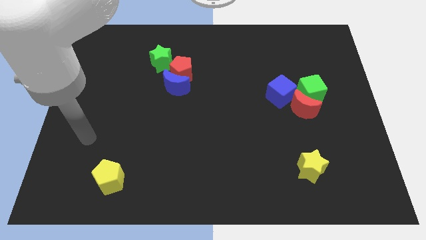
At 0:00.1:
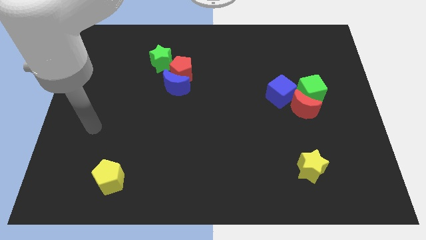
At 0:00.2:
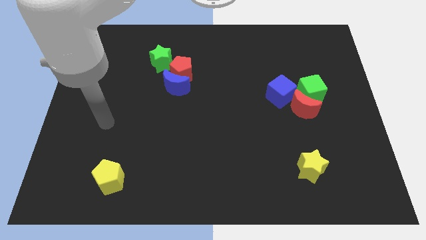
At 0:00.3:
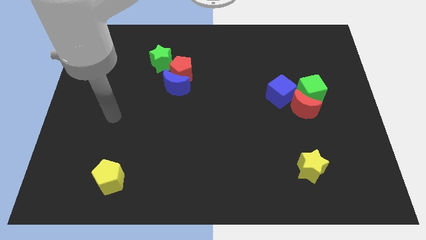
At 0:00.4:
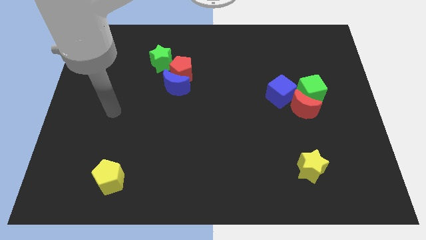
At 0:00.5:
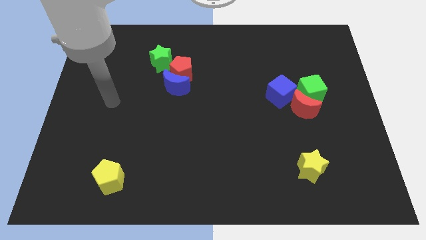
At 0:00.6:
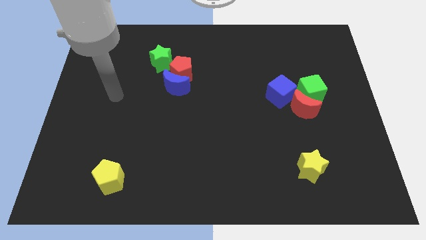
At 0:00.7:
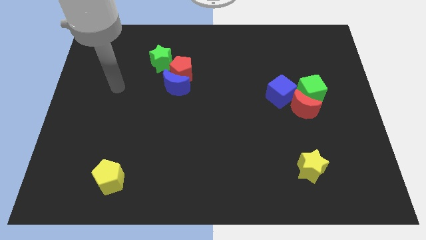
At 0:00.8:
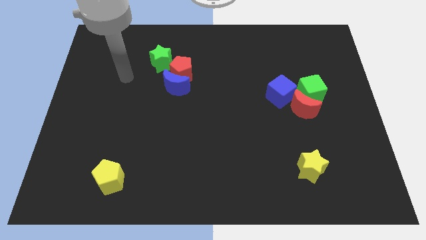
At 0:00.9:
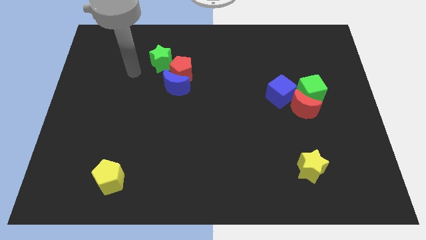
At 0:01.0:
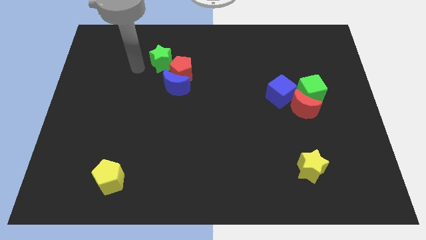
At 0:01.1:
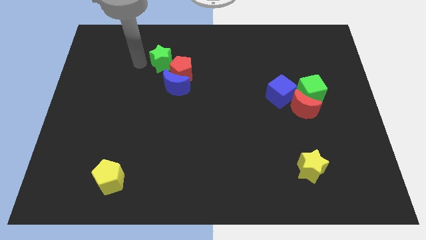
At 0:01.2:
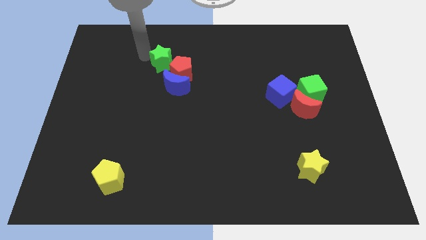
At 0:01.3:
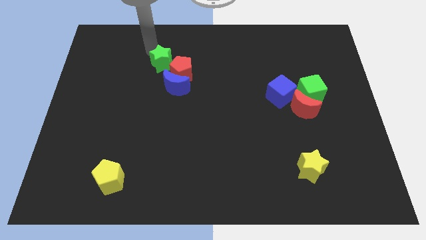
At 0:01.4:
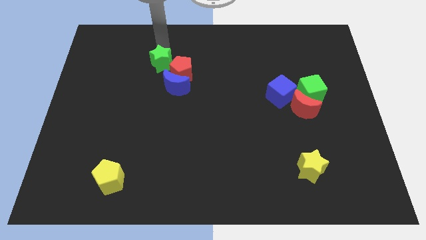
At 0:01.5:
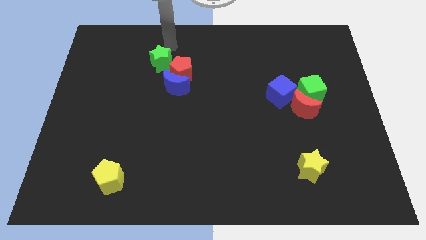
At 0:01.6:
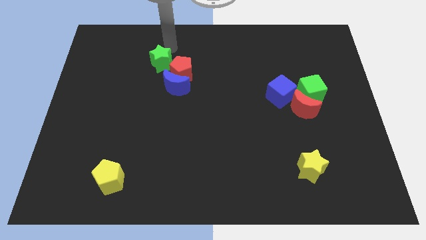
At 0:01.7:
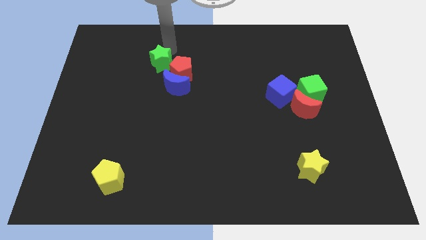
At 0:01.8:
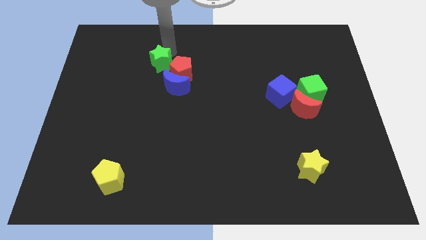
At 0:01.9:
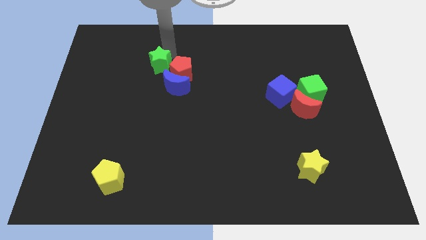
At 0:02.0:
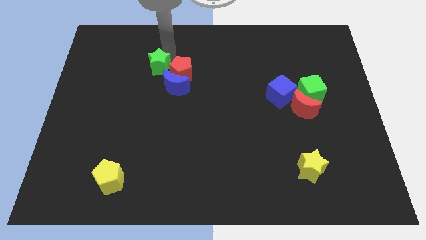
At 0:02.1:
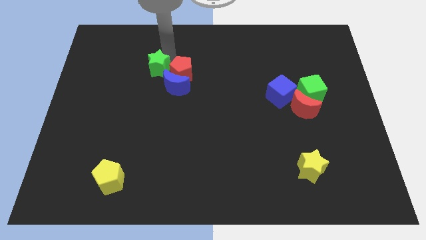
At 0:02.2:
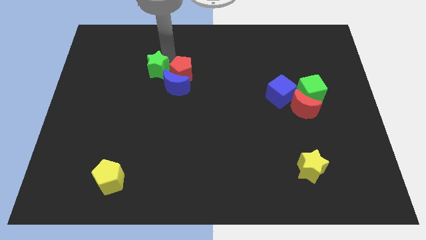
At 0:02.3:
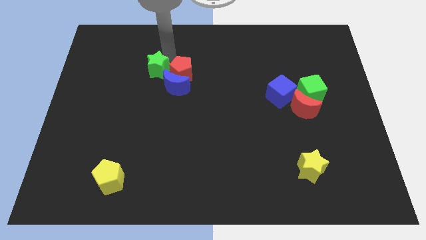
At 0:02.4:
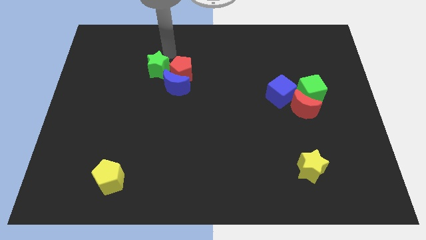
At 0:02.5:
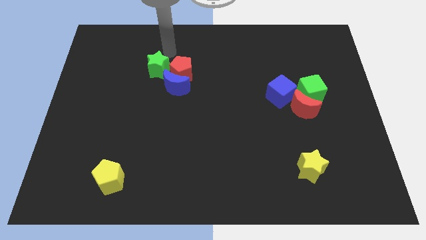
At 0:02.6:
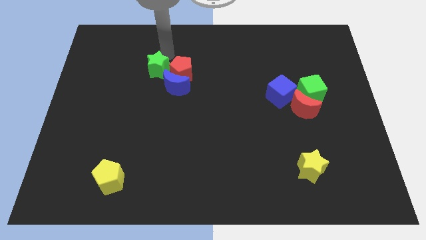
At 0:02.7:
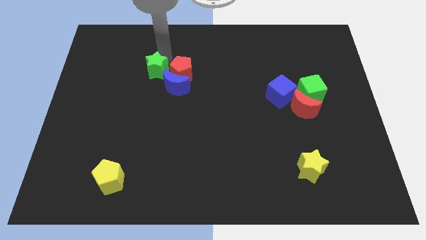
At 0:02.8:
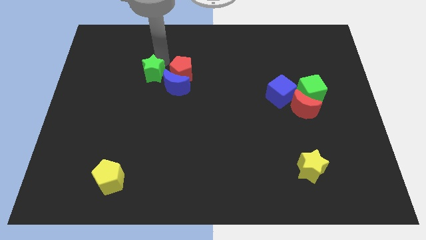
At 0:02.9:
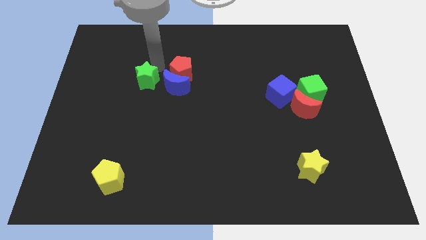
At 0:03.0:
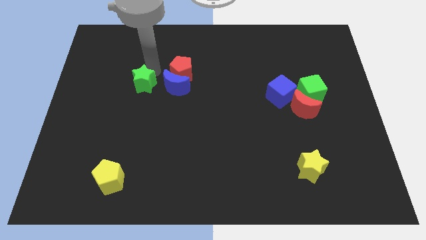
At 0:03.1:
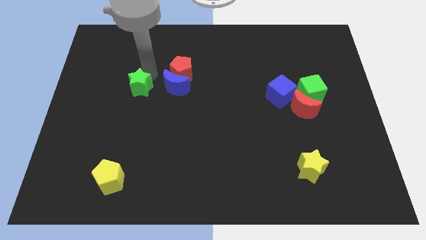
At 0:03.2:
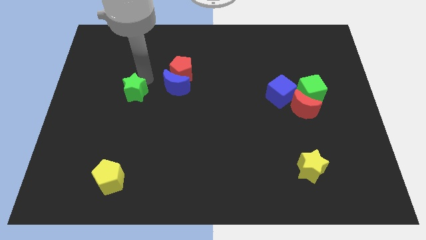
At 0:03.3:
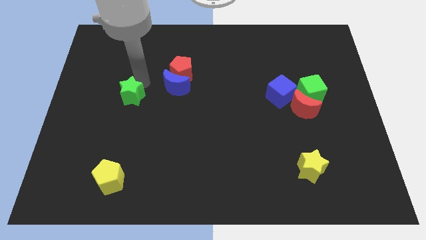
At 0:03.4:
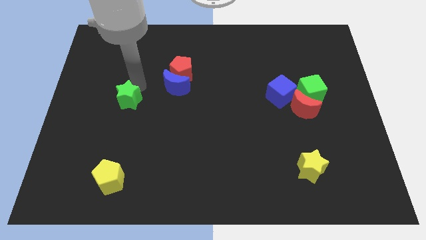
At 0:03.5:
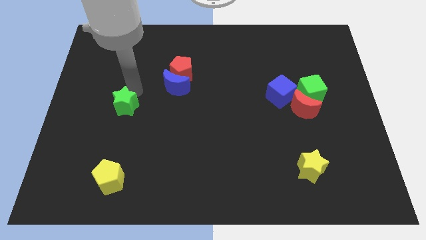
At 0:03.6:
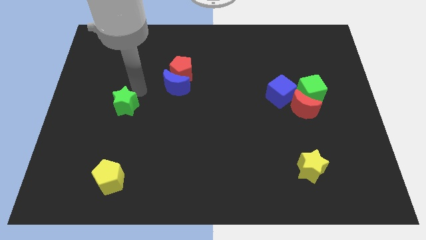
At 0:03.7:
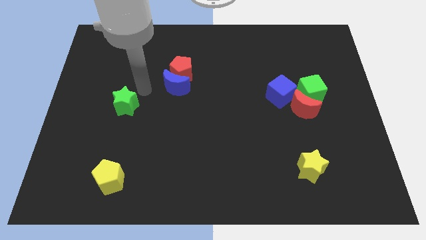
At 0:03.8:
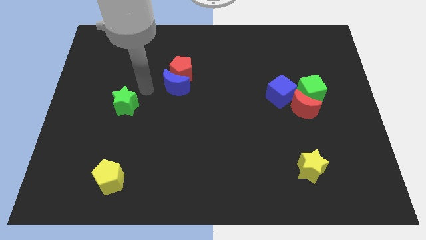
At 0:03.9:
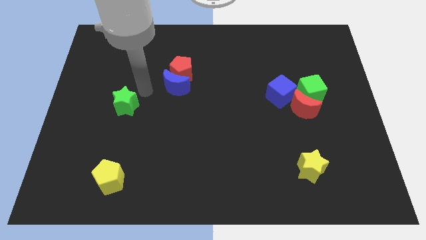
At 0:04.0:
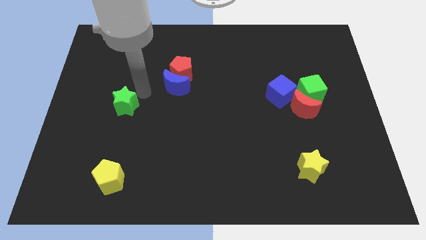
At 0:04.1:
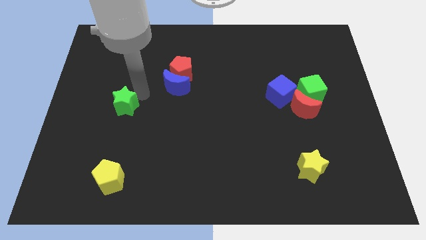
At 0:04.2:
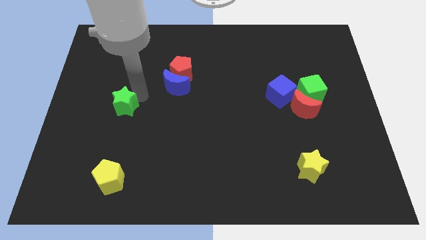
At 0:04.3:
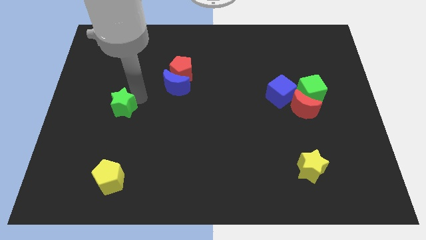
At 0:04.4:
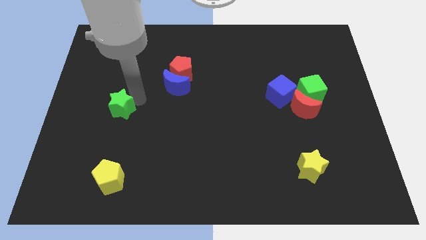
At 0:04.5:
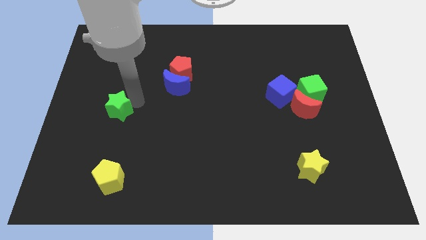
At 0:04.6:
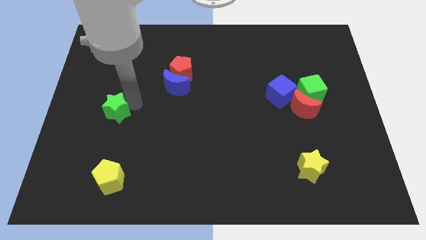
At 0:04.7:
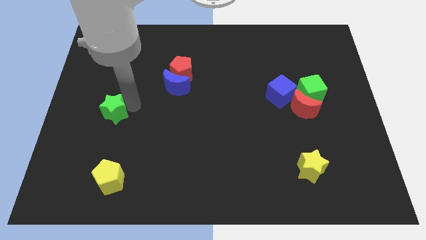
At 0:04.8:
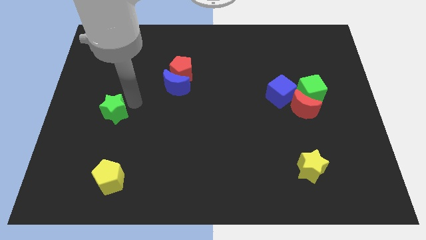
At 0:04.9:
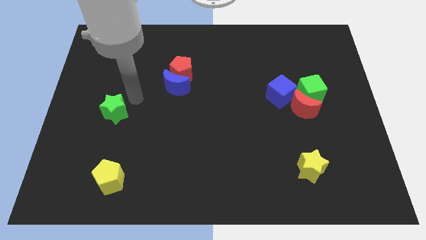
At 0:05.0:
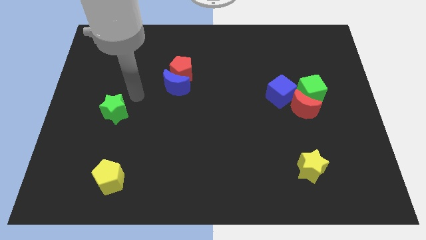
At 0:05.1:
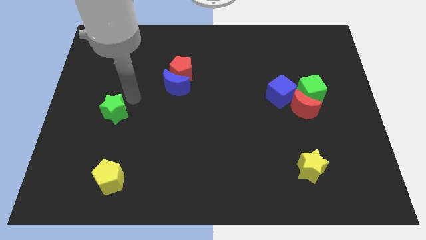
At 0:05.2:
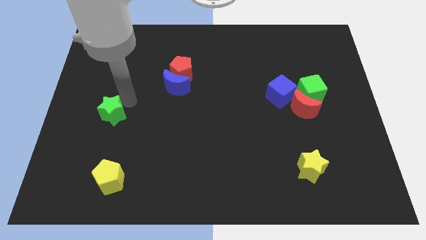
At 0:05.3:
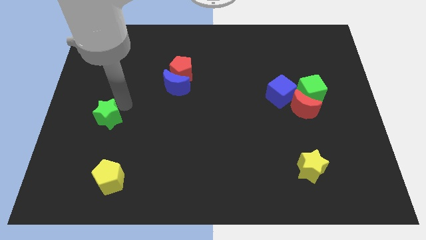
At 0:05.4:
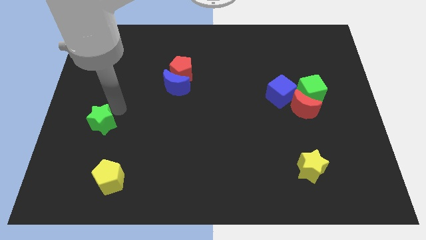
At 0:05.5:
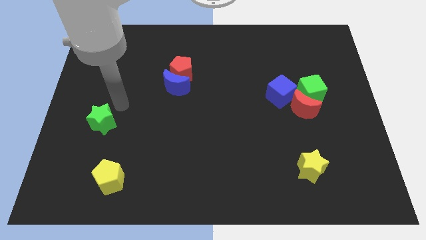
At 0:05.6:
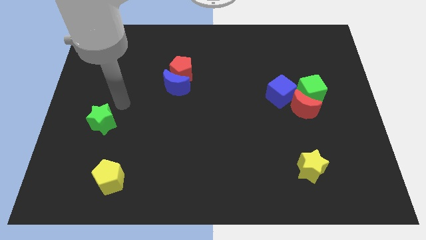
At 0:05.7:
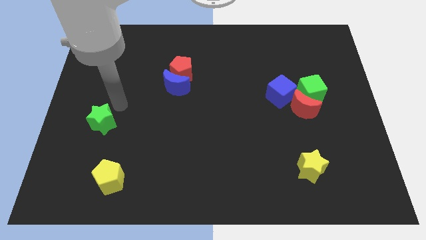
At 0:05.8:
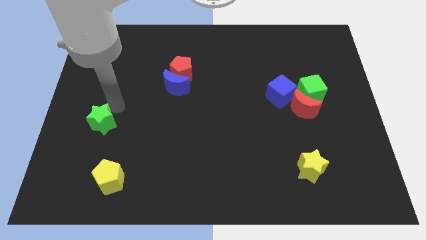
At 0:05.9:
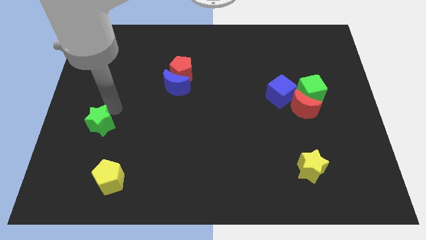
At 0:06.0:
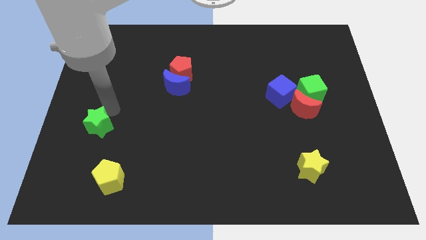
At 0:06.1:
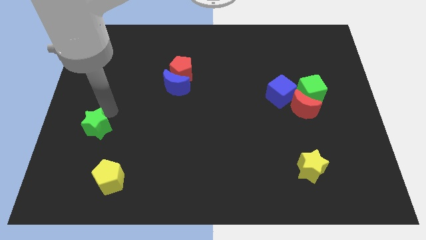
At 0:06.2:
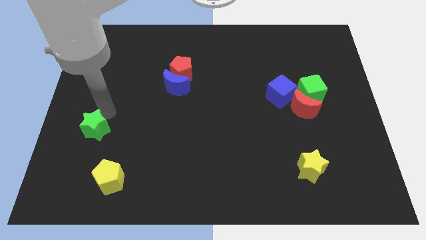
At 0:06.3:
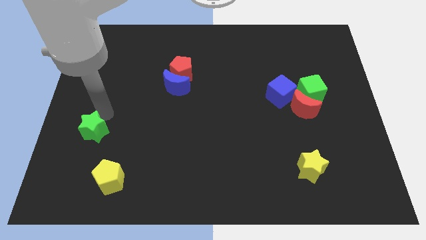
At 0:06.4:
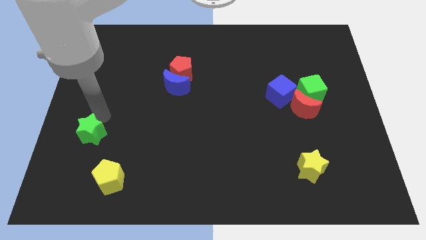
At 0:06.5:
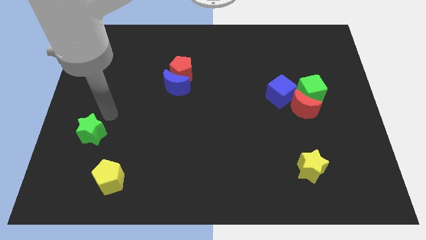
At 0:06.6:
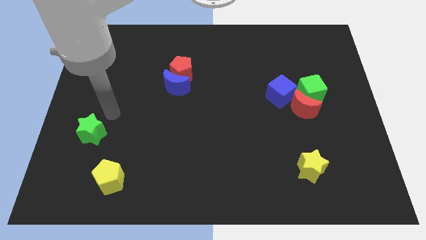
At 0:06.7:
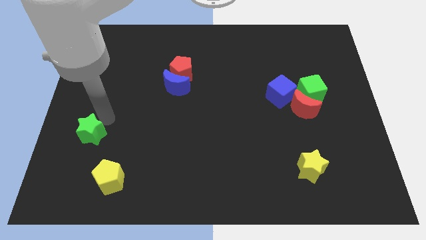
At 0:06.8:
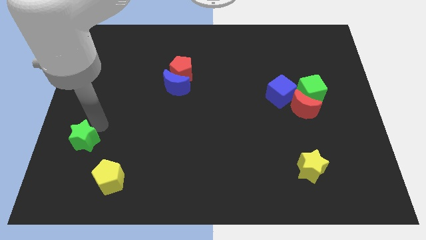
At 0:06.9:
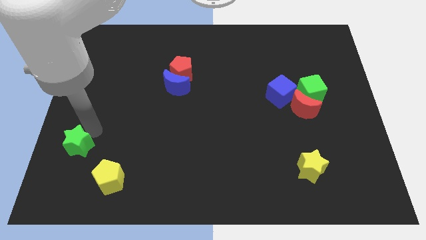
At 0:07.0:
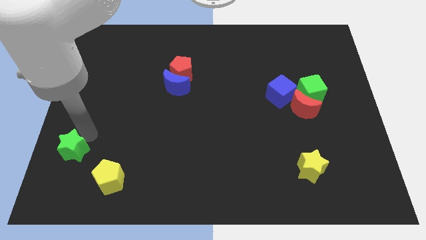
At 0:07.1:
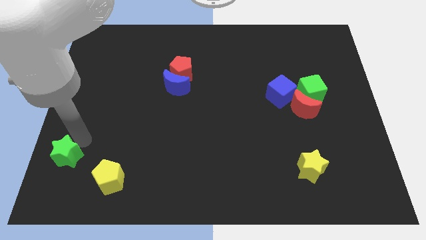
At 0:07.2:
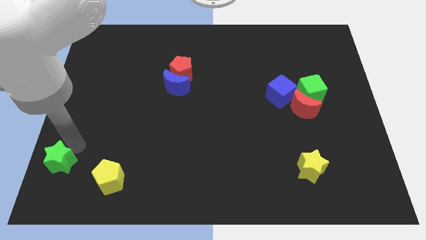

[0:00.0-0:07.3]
put the green star to the bottom left corner
